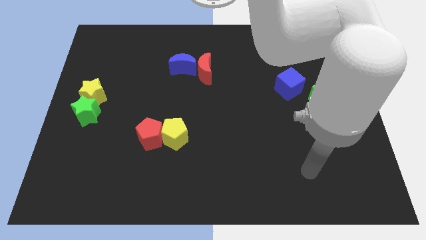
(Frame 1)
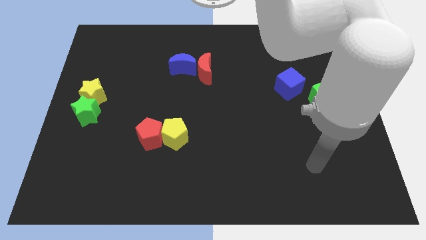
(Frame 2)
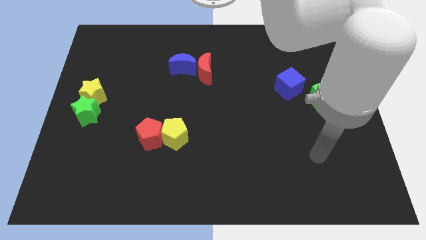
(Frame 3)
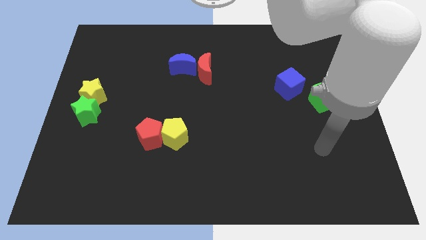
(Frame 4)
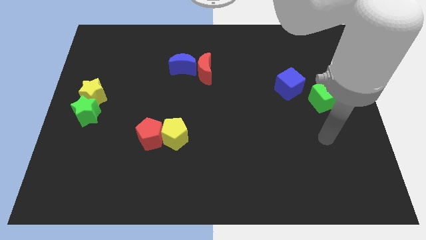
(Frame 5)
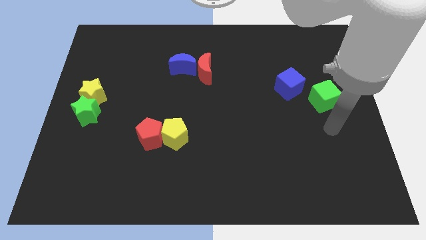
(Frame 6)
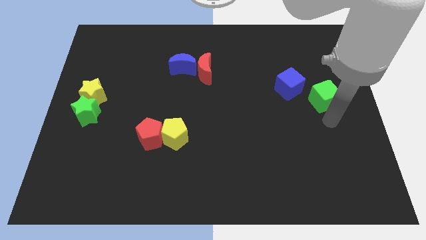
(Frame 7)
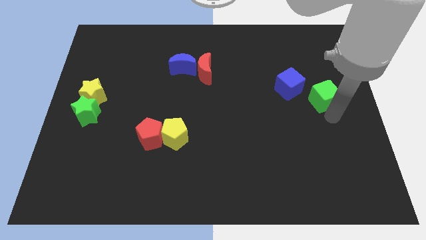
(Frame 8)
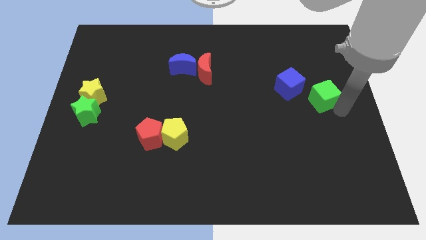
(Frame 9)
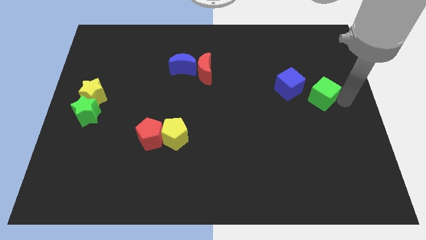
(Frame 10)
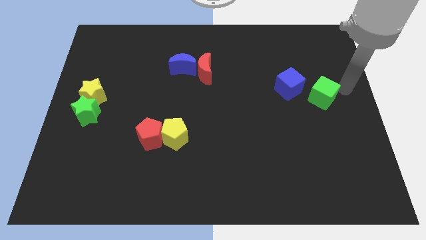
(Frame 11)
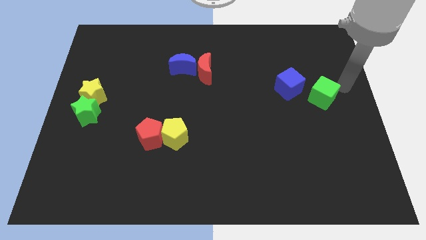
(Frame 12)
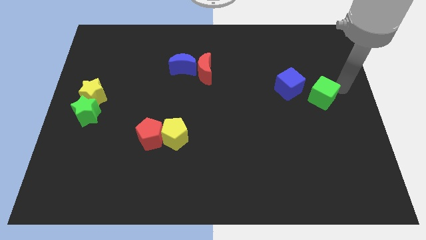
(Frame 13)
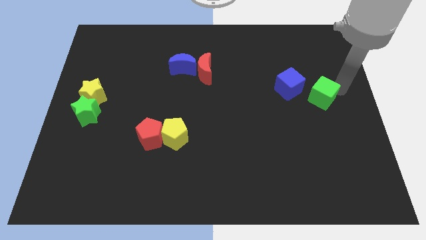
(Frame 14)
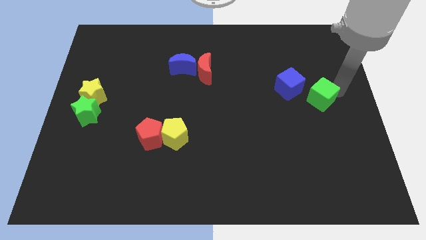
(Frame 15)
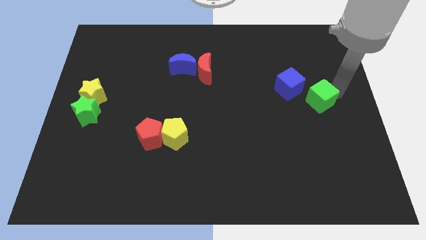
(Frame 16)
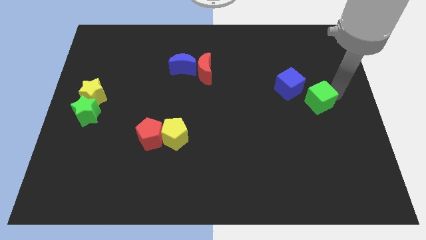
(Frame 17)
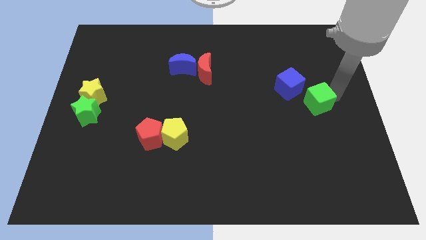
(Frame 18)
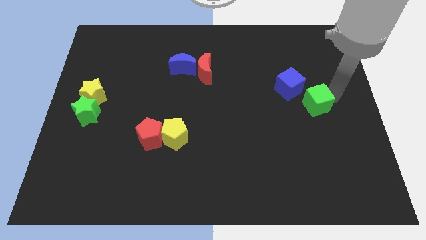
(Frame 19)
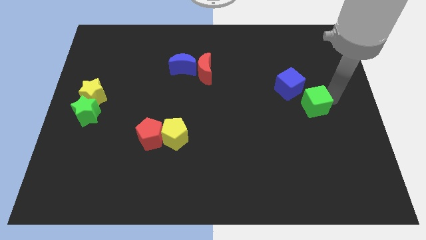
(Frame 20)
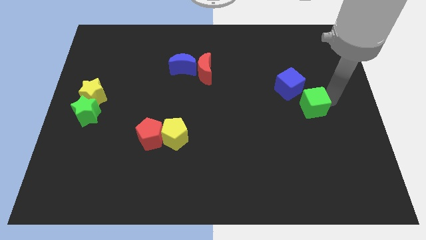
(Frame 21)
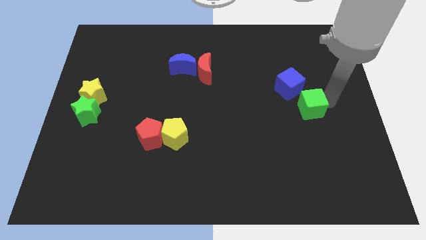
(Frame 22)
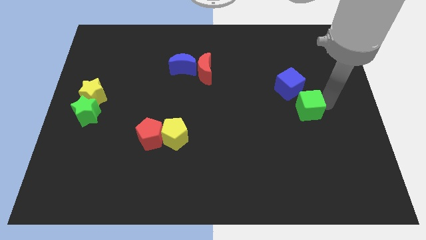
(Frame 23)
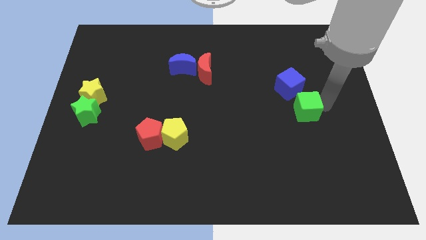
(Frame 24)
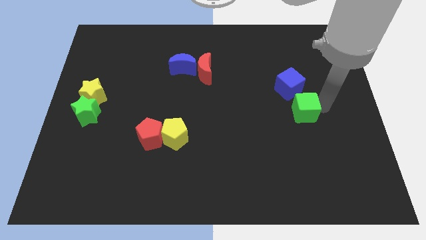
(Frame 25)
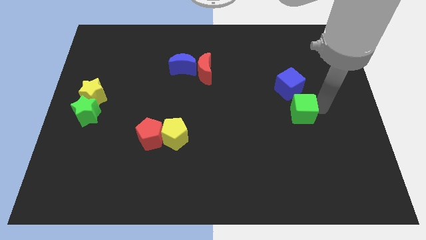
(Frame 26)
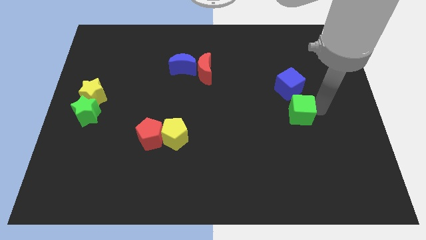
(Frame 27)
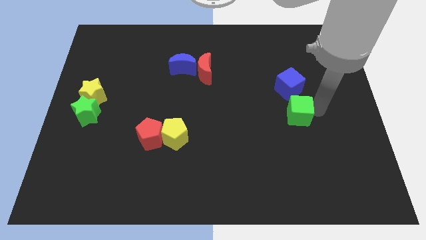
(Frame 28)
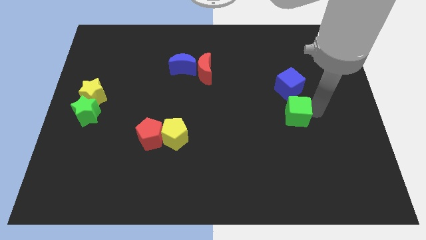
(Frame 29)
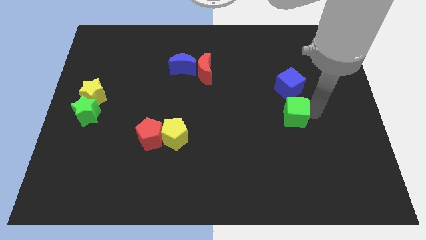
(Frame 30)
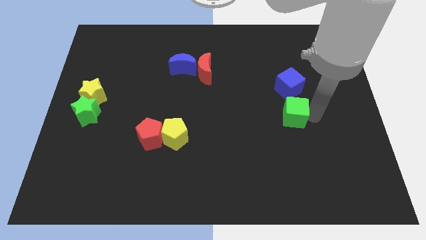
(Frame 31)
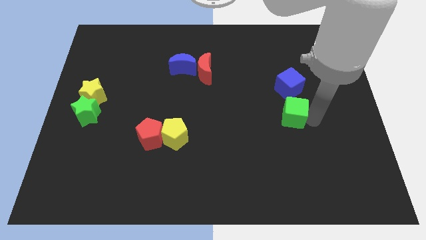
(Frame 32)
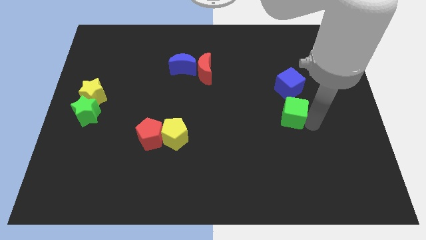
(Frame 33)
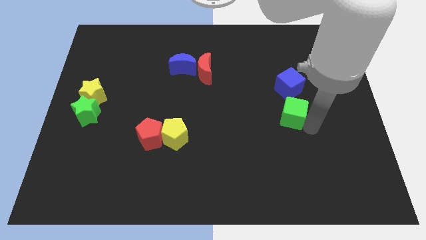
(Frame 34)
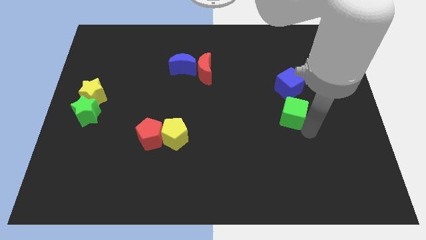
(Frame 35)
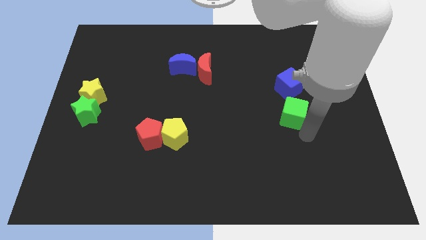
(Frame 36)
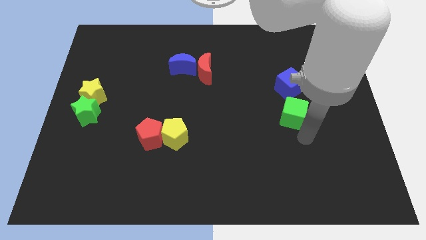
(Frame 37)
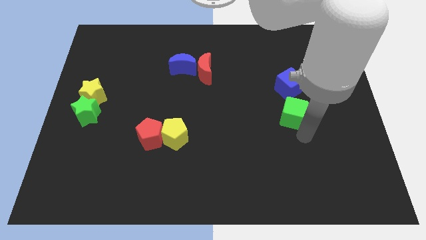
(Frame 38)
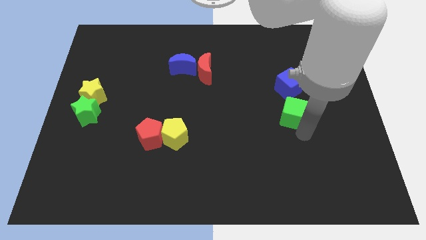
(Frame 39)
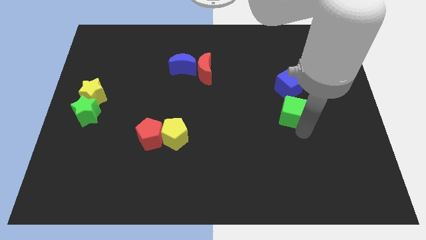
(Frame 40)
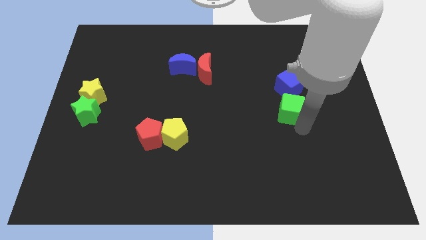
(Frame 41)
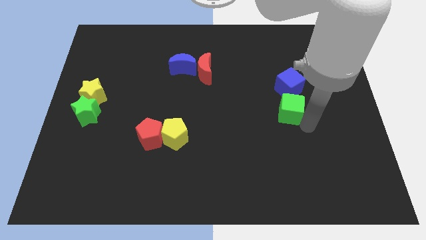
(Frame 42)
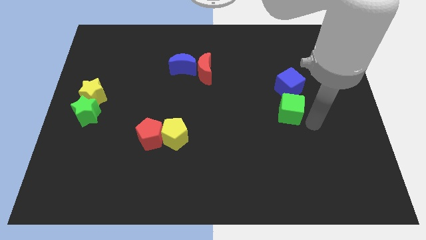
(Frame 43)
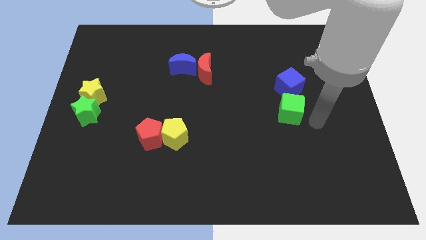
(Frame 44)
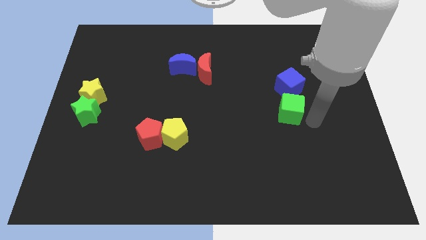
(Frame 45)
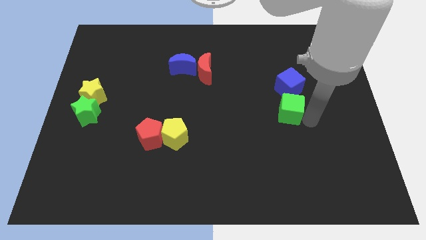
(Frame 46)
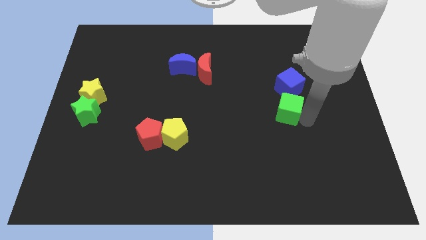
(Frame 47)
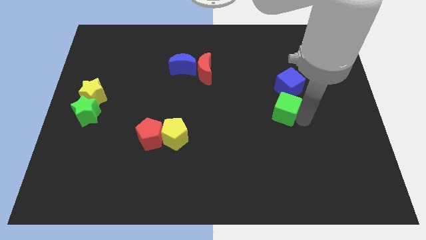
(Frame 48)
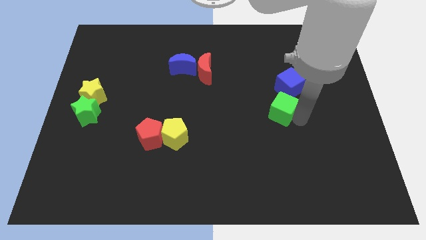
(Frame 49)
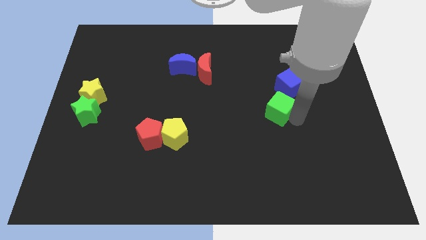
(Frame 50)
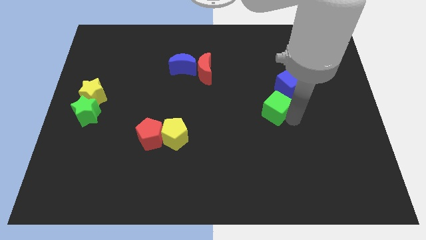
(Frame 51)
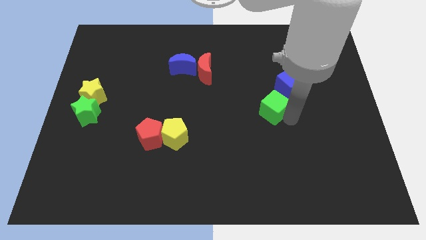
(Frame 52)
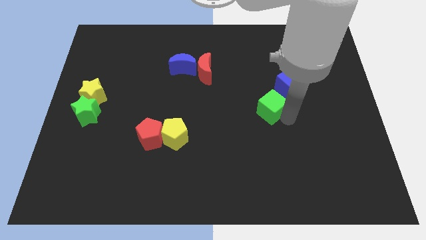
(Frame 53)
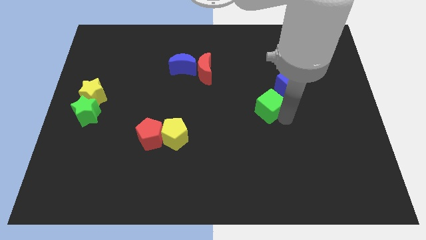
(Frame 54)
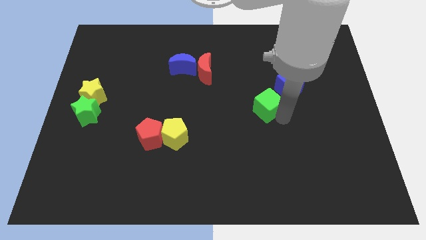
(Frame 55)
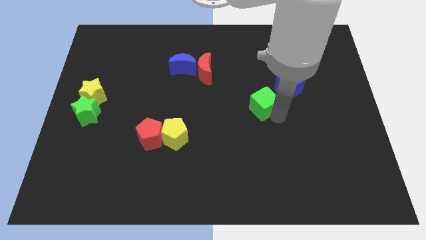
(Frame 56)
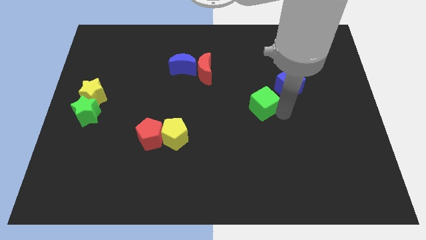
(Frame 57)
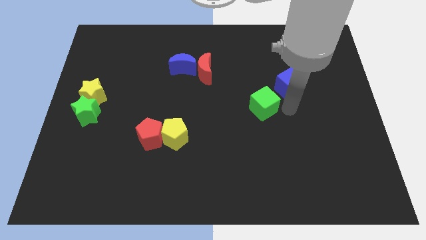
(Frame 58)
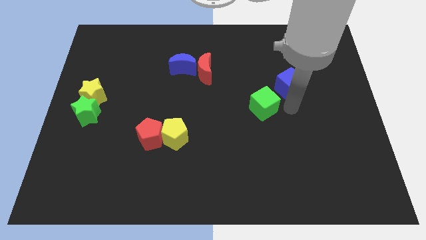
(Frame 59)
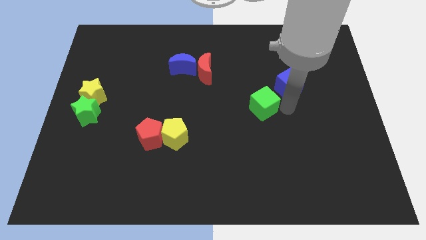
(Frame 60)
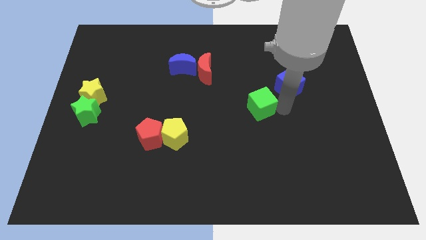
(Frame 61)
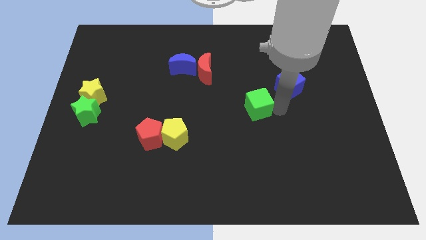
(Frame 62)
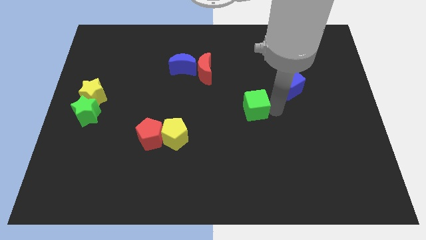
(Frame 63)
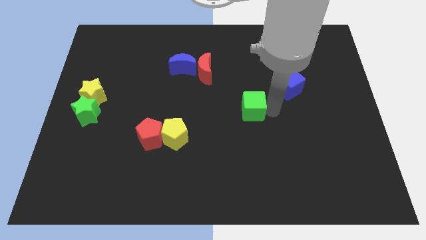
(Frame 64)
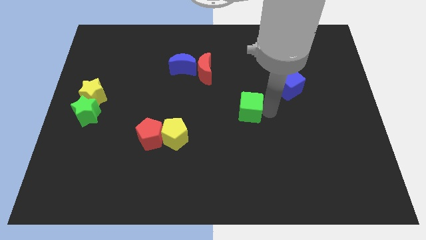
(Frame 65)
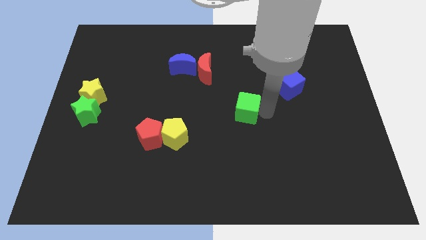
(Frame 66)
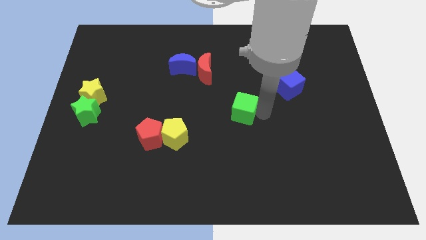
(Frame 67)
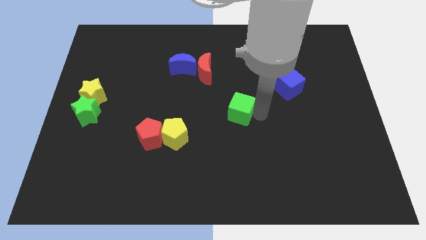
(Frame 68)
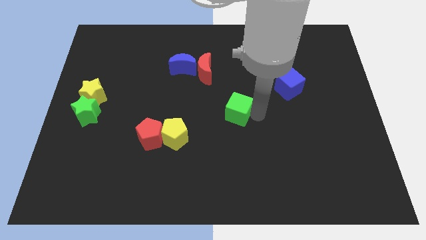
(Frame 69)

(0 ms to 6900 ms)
slide the green cube left

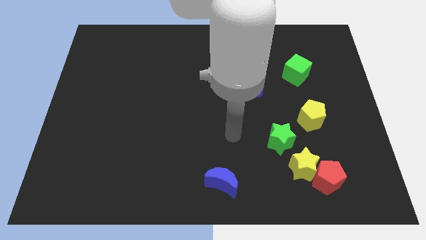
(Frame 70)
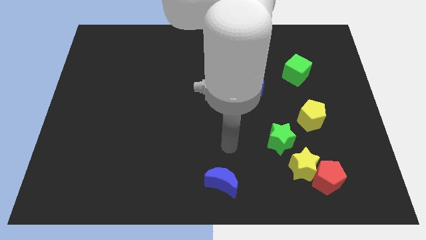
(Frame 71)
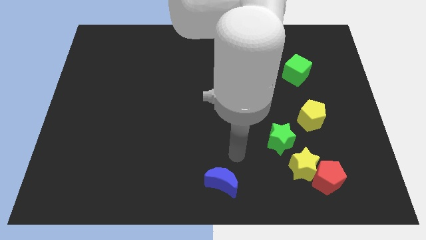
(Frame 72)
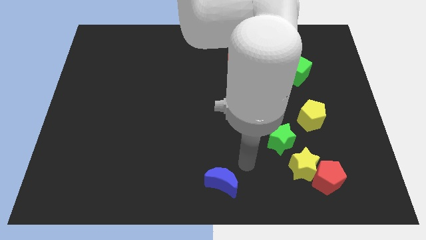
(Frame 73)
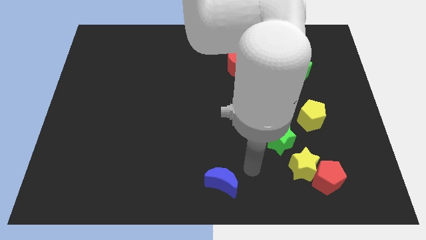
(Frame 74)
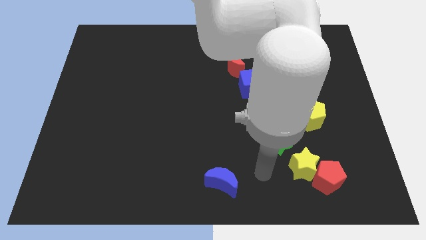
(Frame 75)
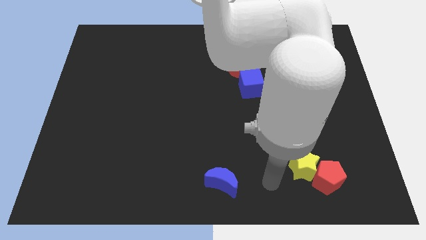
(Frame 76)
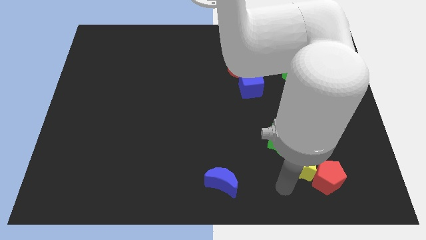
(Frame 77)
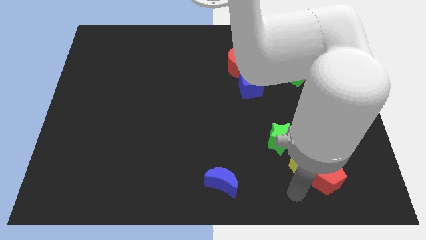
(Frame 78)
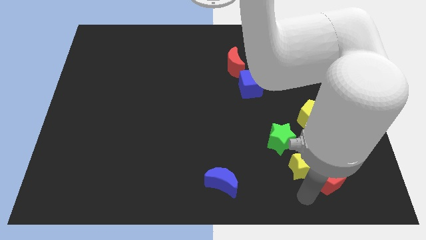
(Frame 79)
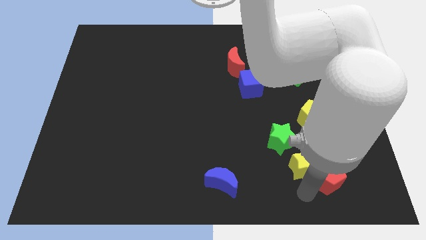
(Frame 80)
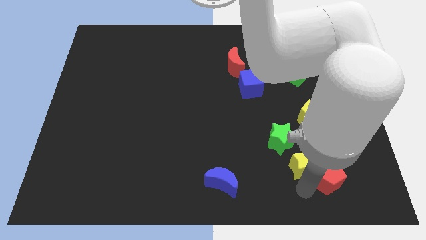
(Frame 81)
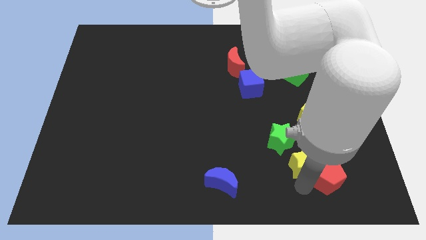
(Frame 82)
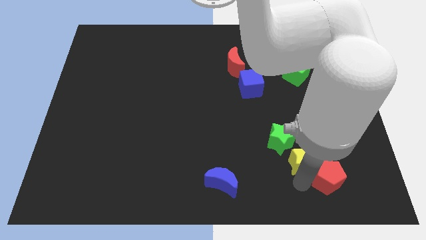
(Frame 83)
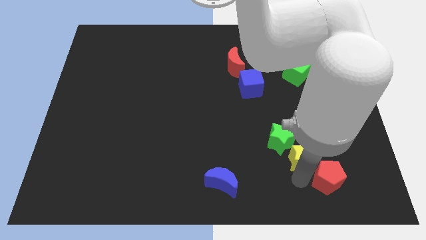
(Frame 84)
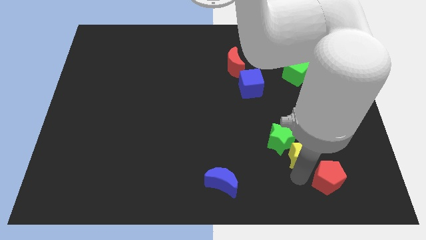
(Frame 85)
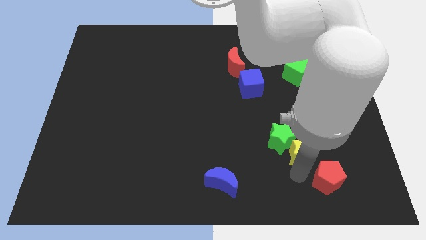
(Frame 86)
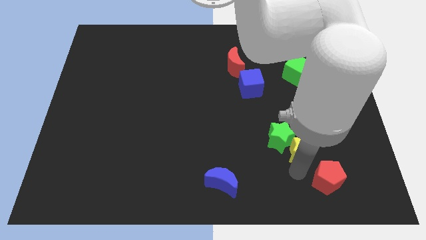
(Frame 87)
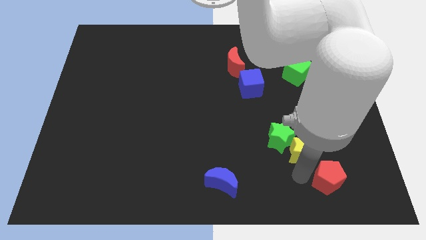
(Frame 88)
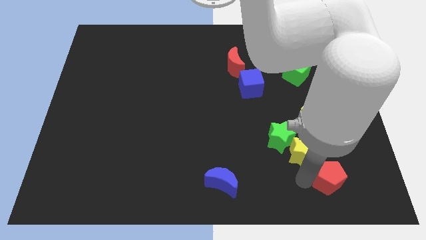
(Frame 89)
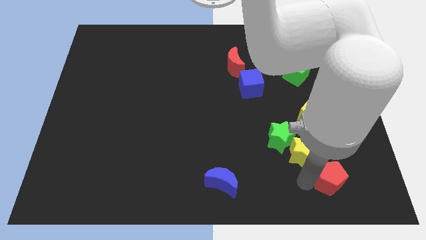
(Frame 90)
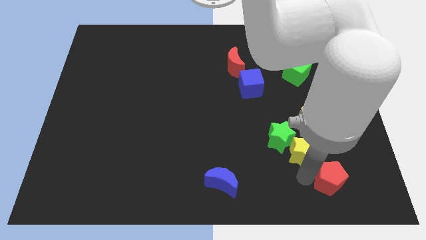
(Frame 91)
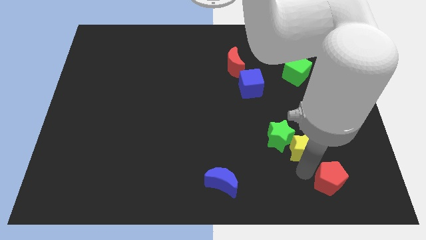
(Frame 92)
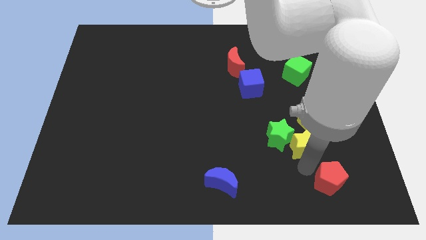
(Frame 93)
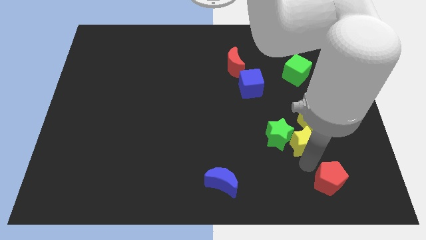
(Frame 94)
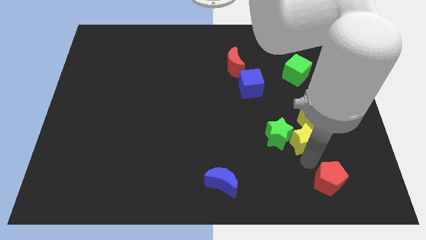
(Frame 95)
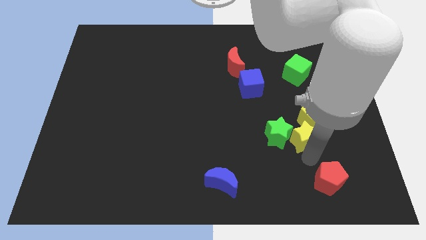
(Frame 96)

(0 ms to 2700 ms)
slide the yellow star a little upwards
